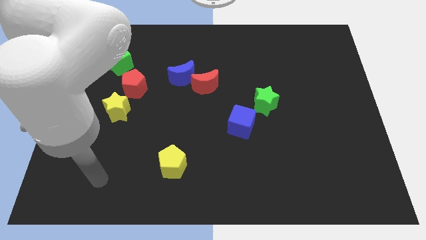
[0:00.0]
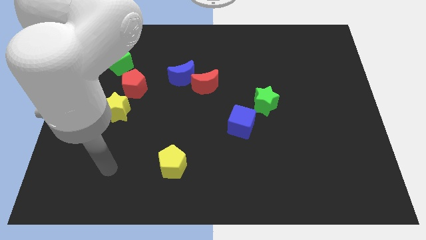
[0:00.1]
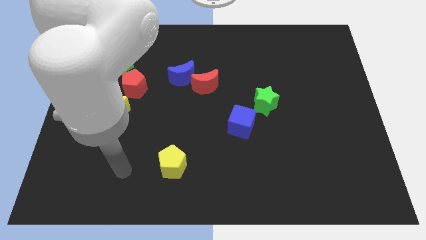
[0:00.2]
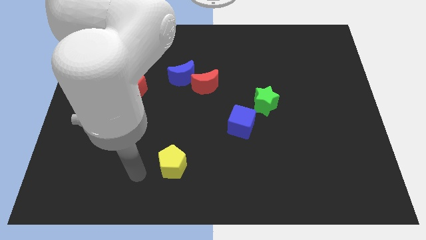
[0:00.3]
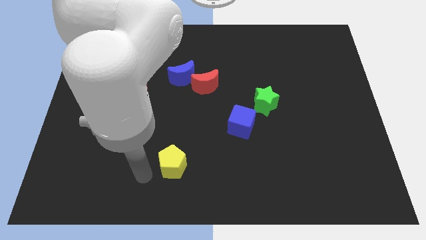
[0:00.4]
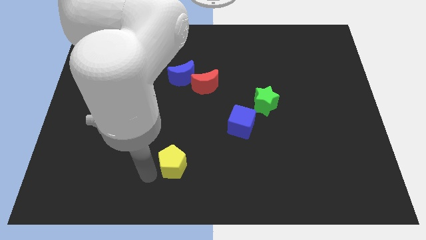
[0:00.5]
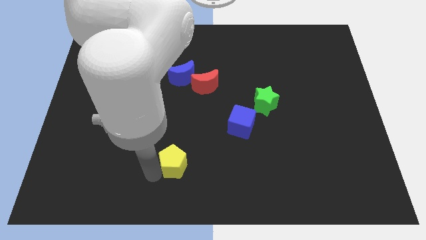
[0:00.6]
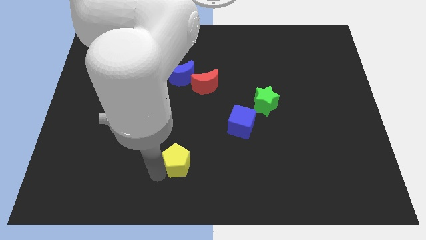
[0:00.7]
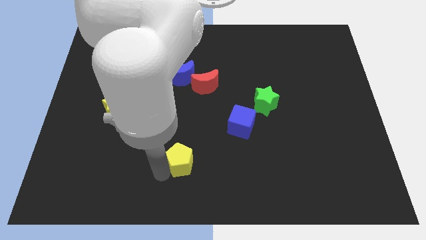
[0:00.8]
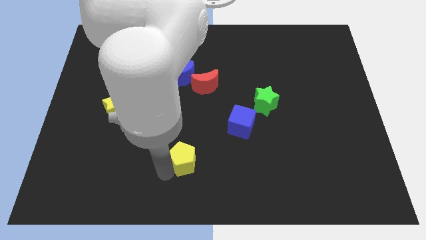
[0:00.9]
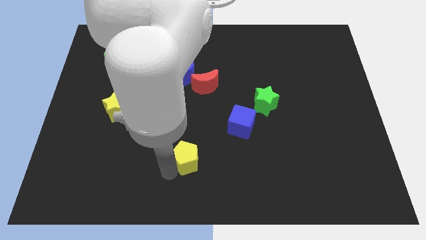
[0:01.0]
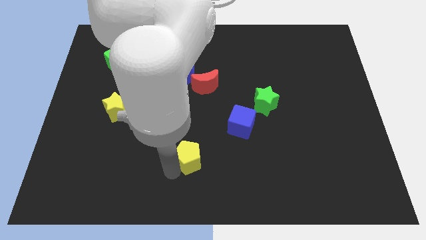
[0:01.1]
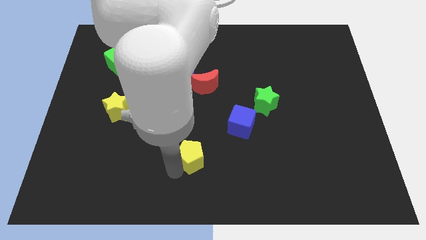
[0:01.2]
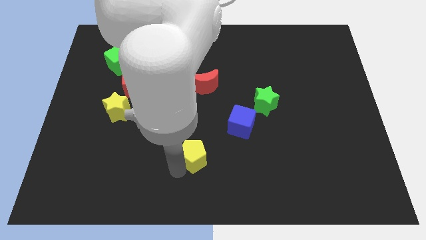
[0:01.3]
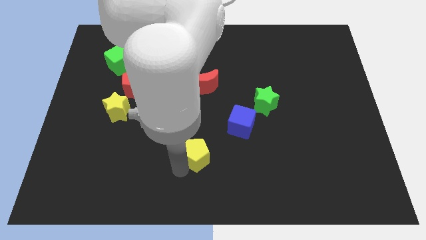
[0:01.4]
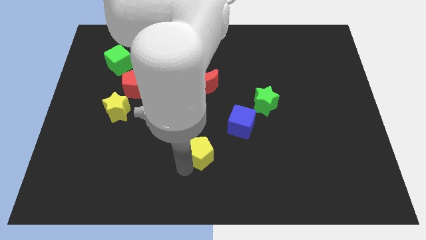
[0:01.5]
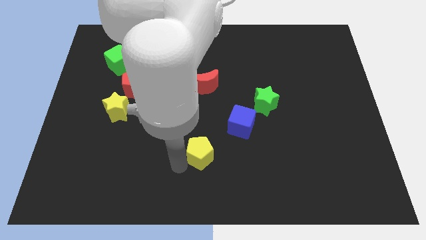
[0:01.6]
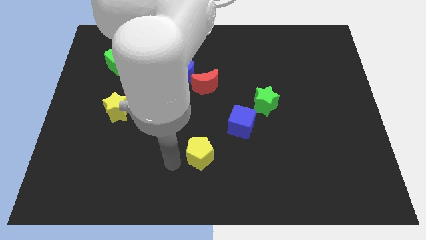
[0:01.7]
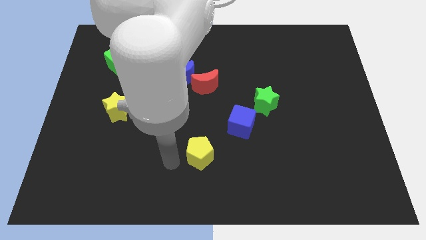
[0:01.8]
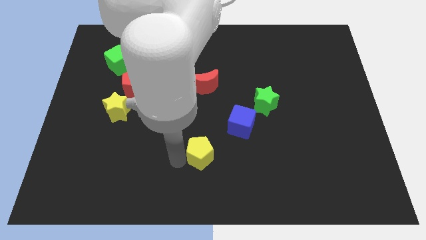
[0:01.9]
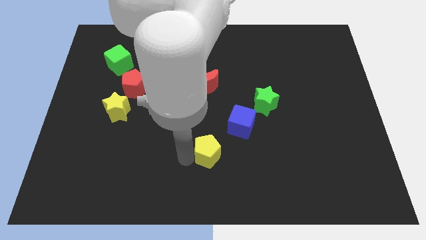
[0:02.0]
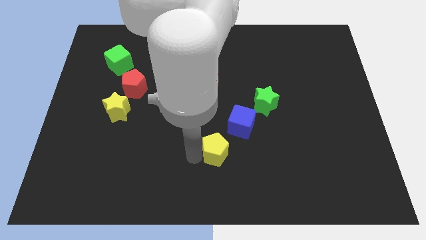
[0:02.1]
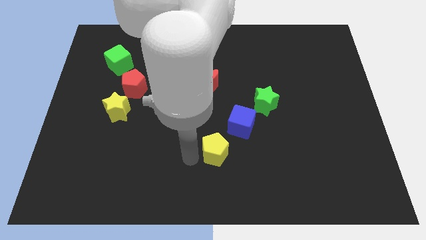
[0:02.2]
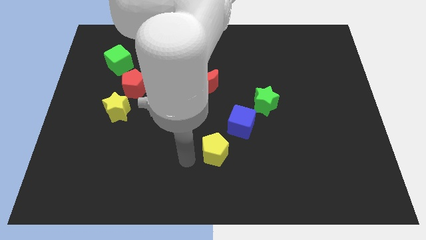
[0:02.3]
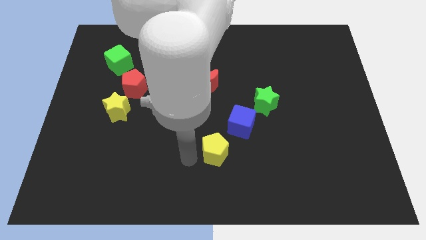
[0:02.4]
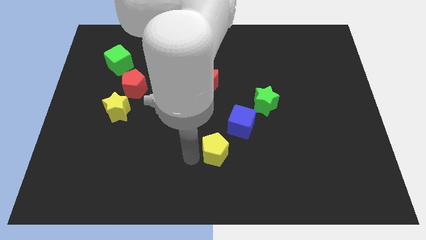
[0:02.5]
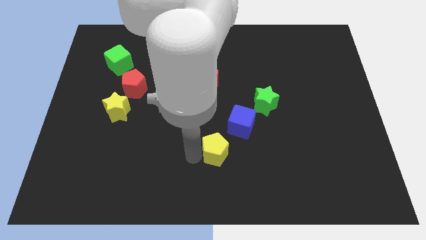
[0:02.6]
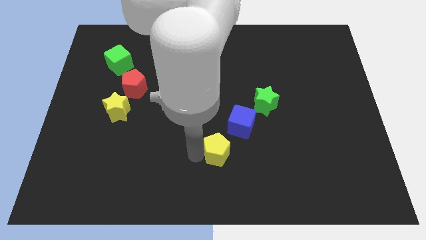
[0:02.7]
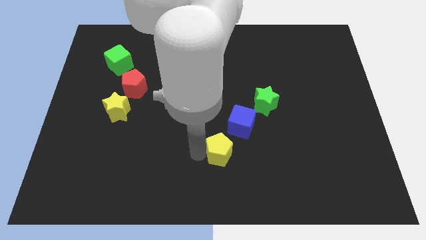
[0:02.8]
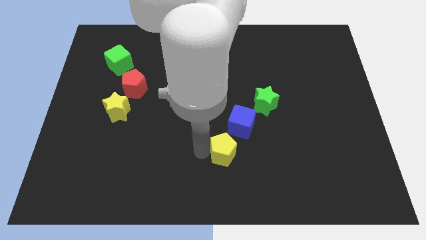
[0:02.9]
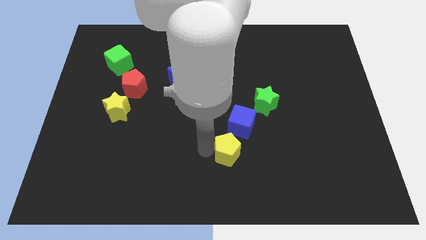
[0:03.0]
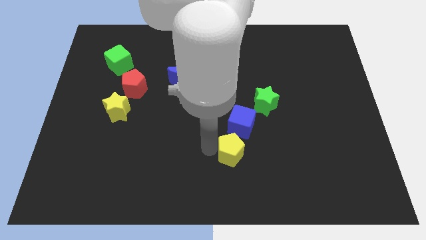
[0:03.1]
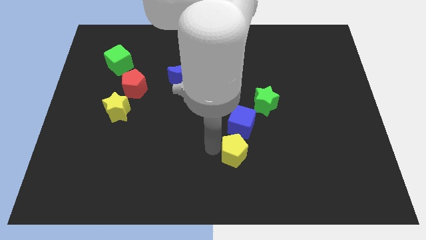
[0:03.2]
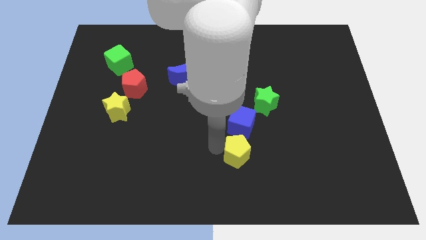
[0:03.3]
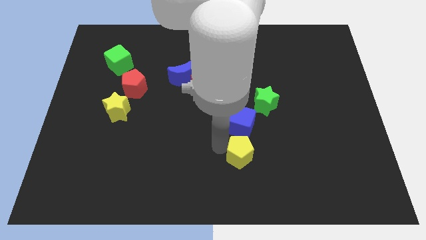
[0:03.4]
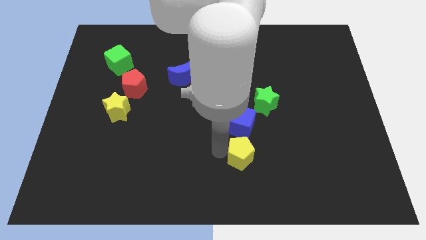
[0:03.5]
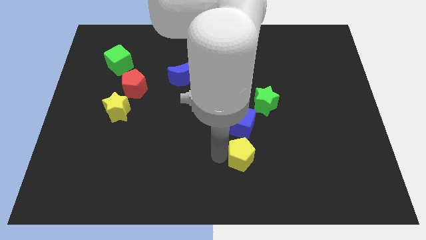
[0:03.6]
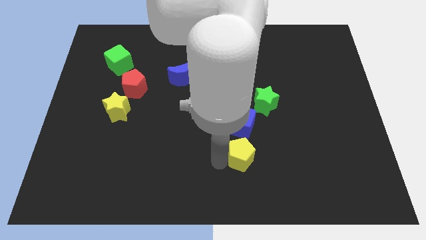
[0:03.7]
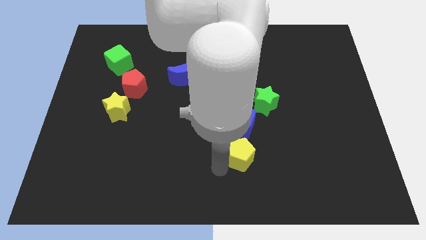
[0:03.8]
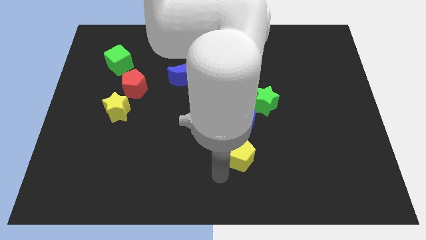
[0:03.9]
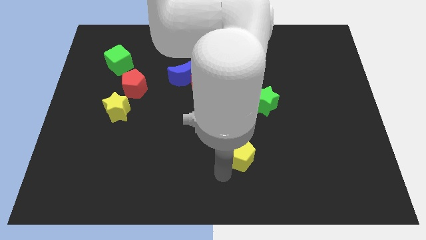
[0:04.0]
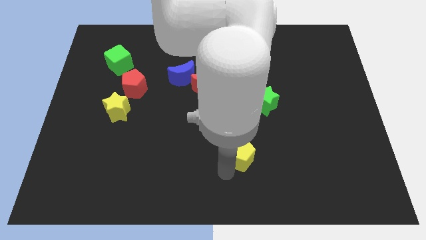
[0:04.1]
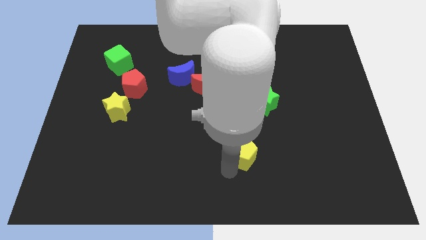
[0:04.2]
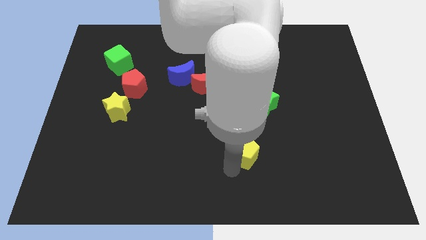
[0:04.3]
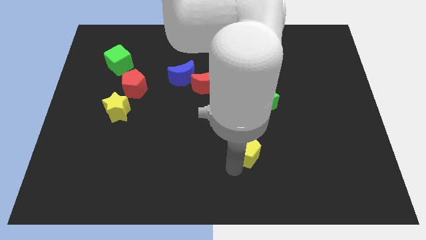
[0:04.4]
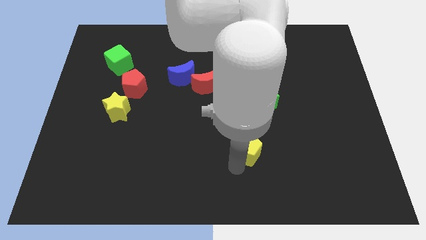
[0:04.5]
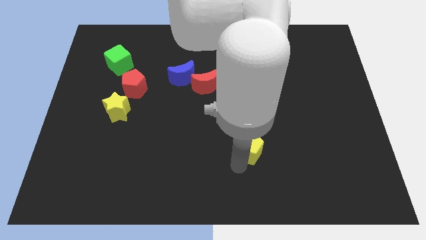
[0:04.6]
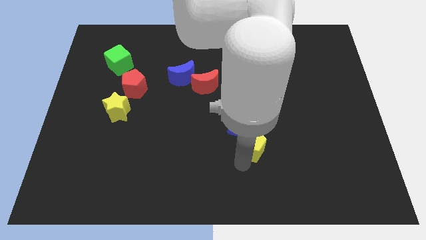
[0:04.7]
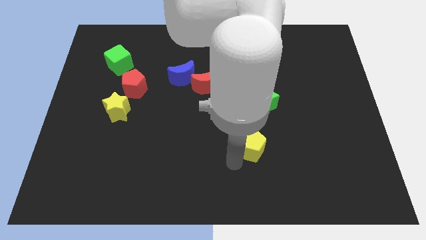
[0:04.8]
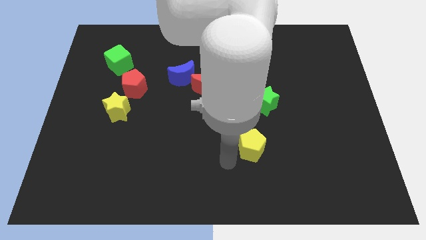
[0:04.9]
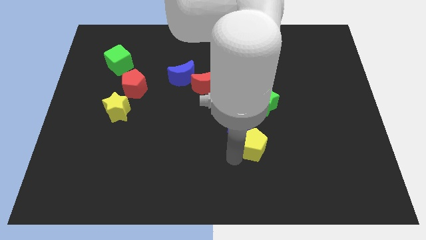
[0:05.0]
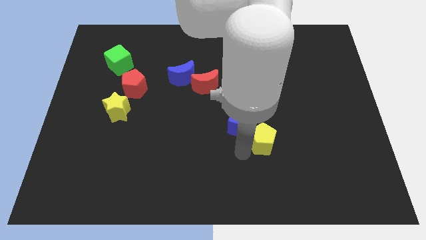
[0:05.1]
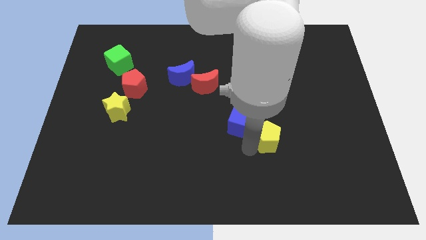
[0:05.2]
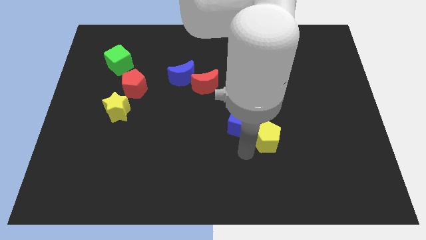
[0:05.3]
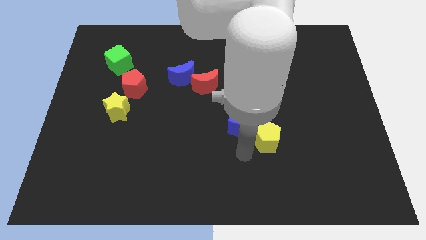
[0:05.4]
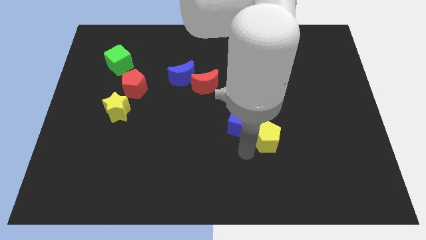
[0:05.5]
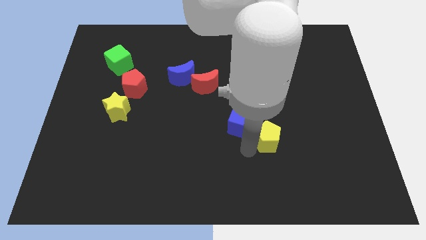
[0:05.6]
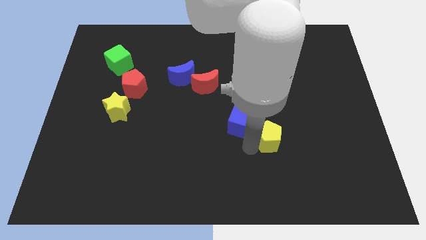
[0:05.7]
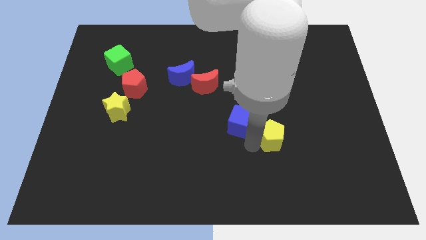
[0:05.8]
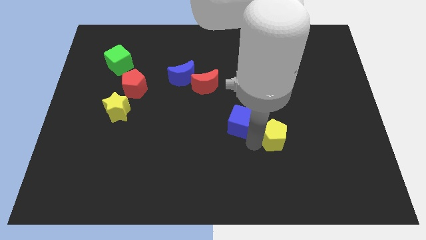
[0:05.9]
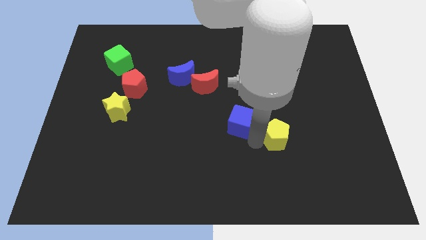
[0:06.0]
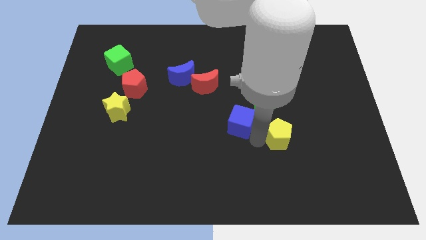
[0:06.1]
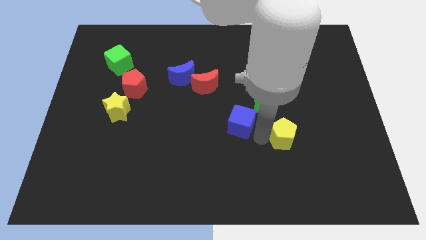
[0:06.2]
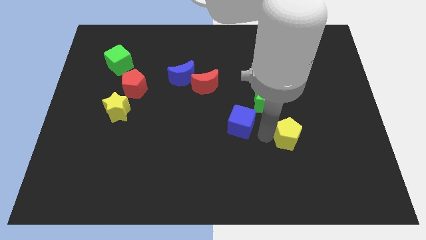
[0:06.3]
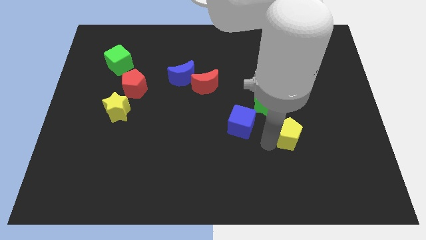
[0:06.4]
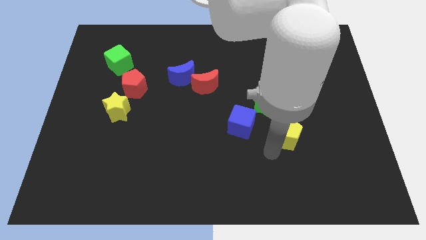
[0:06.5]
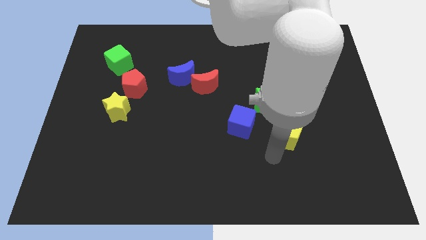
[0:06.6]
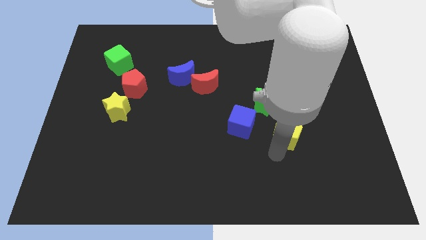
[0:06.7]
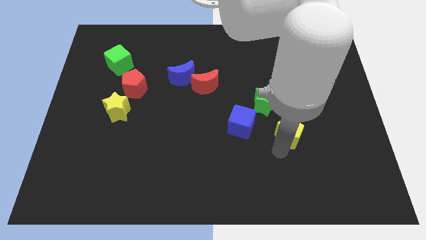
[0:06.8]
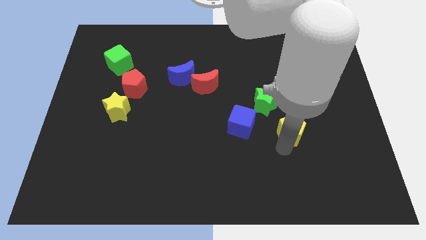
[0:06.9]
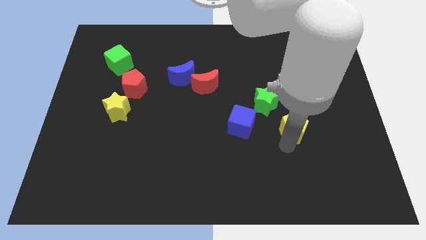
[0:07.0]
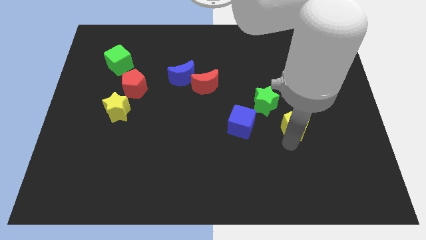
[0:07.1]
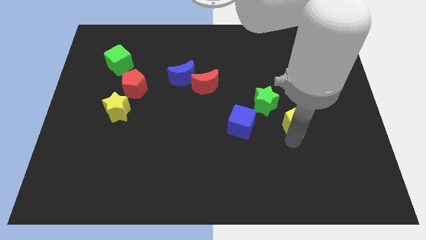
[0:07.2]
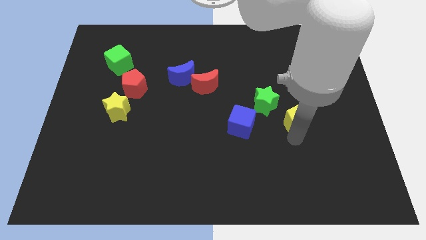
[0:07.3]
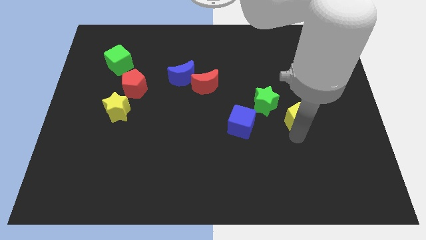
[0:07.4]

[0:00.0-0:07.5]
put the yellow pentagon right of the green star
